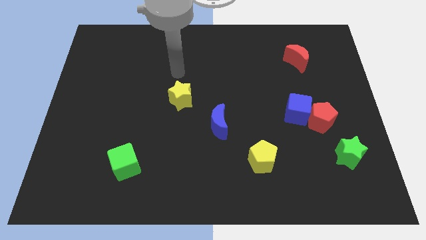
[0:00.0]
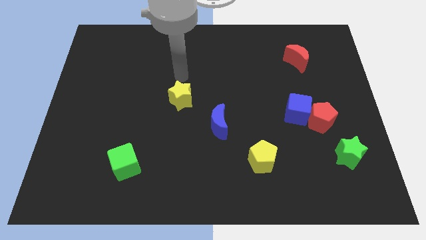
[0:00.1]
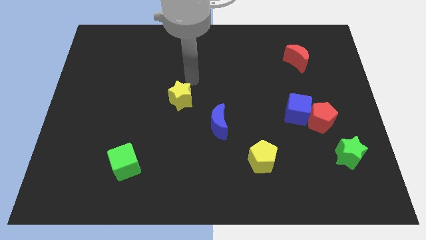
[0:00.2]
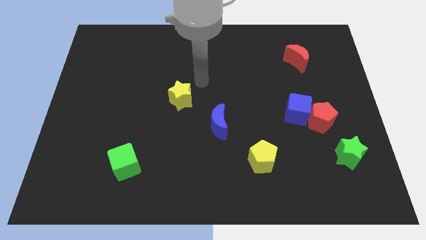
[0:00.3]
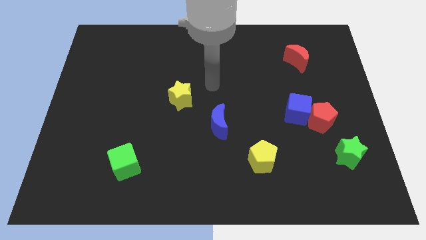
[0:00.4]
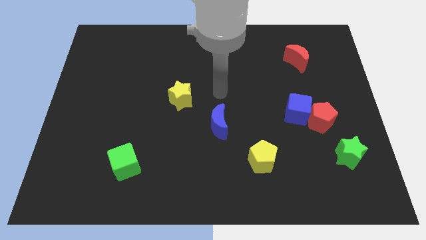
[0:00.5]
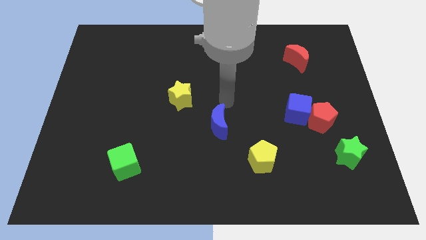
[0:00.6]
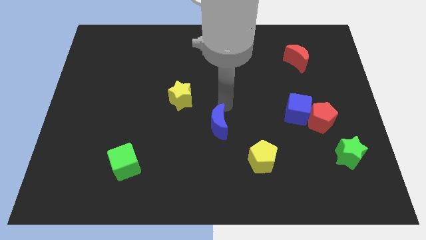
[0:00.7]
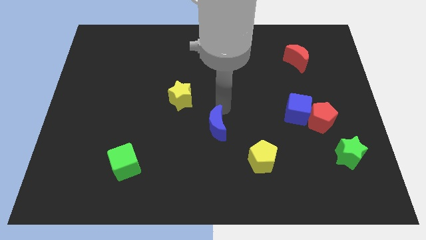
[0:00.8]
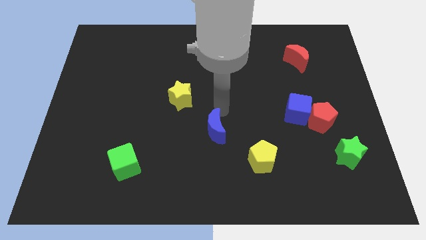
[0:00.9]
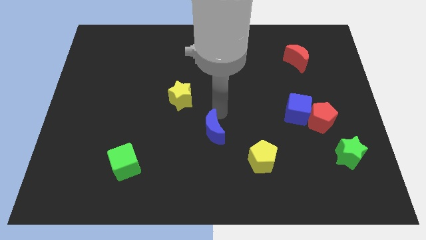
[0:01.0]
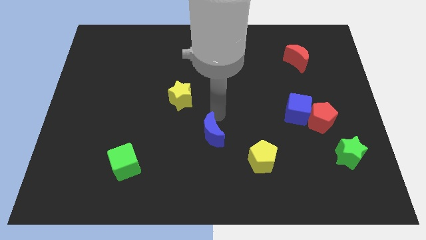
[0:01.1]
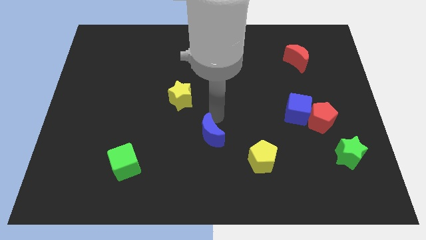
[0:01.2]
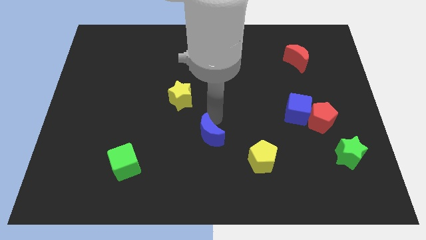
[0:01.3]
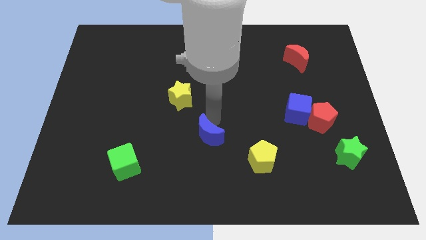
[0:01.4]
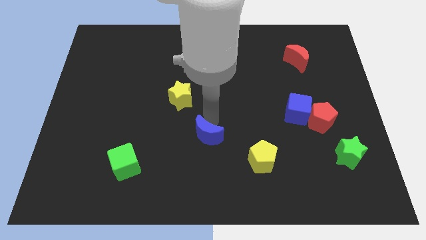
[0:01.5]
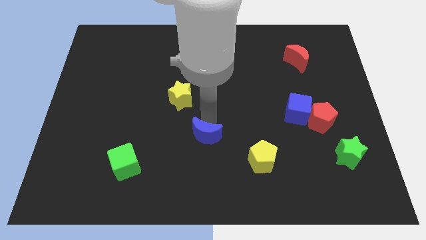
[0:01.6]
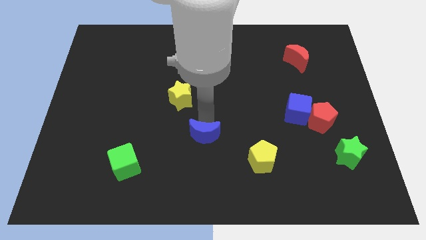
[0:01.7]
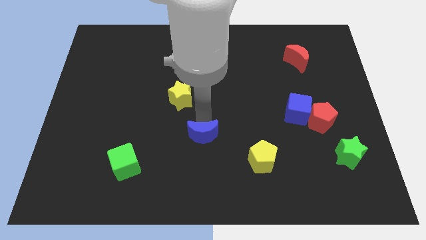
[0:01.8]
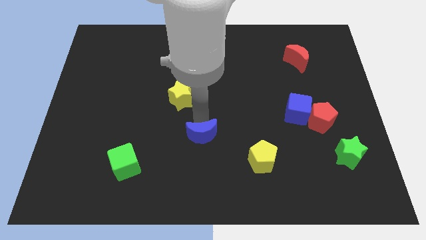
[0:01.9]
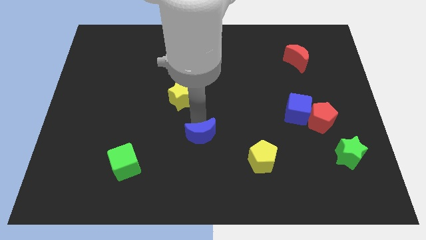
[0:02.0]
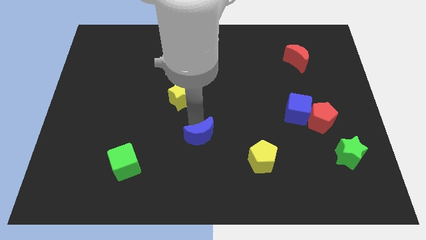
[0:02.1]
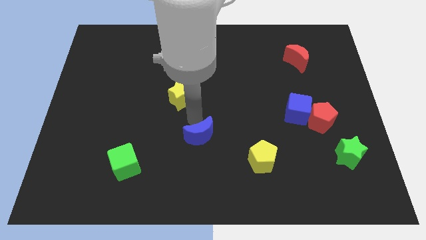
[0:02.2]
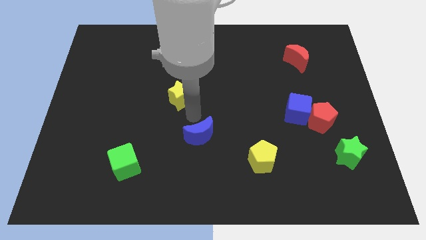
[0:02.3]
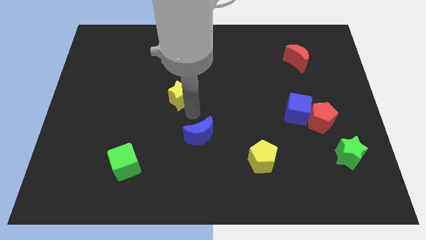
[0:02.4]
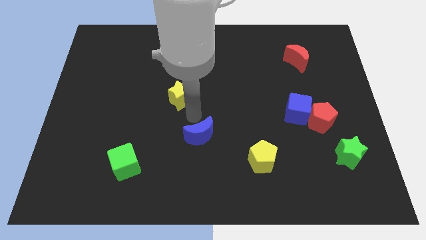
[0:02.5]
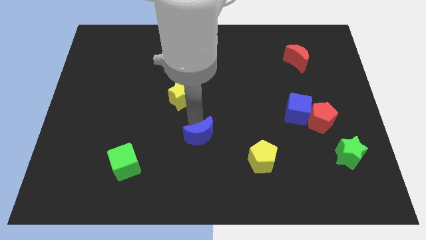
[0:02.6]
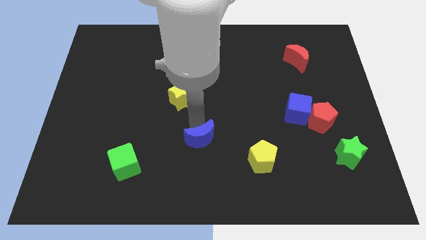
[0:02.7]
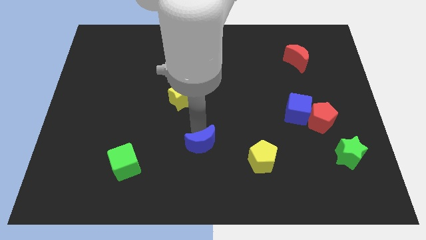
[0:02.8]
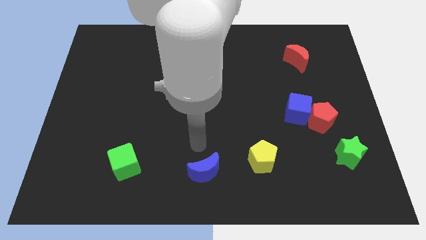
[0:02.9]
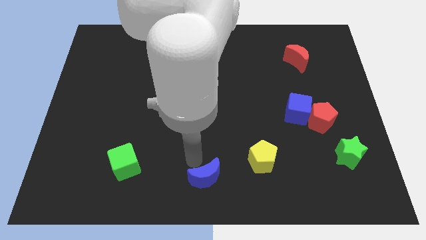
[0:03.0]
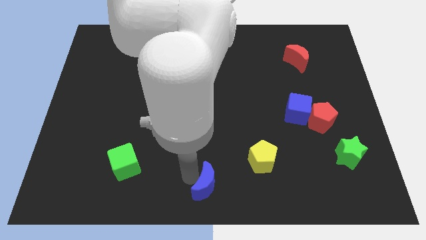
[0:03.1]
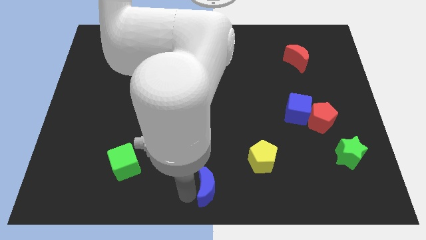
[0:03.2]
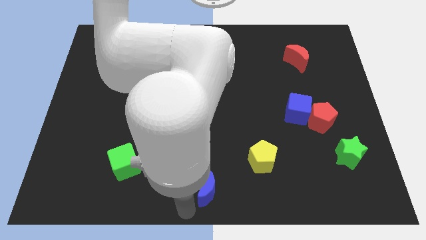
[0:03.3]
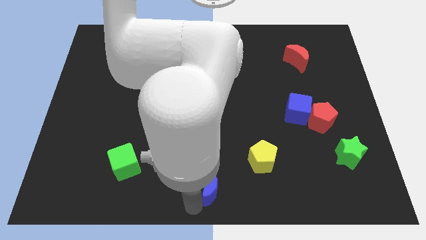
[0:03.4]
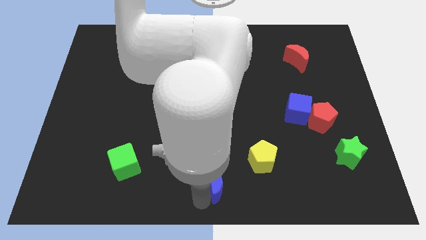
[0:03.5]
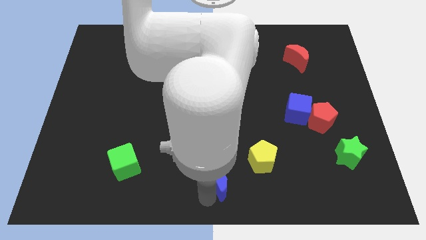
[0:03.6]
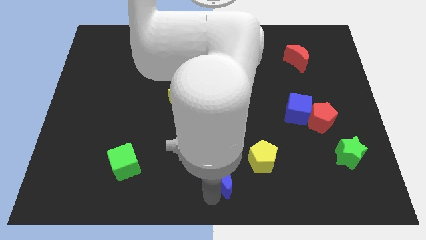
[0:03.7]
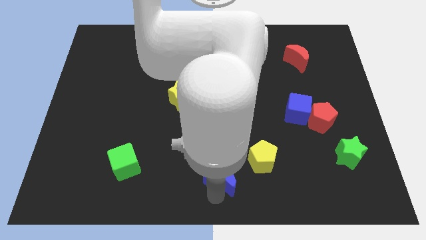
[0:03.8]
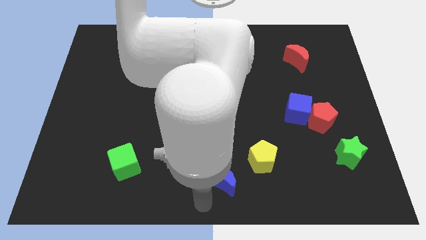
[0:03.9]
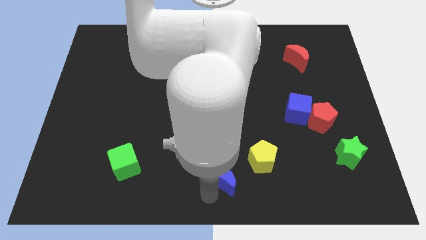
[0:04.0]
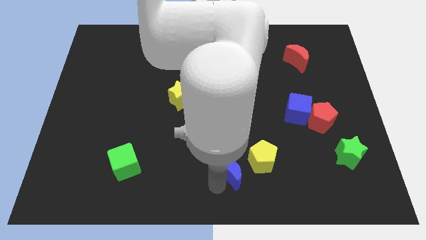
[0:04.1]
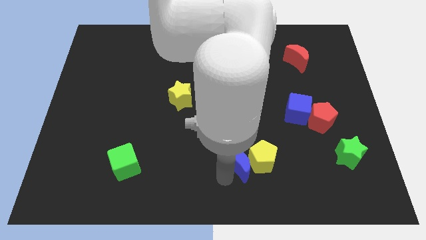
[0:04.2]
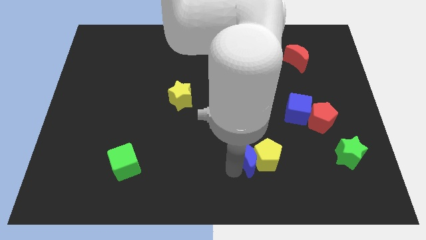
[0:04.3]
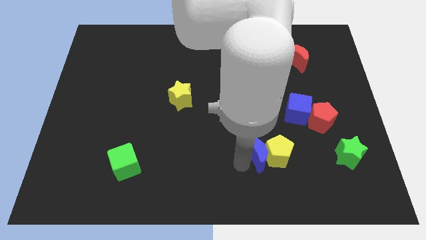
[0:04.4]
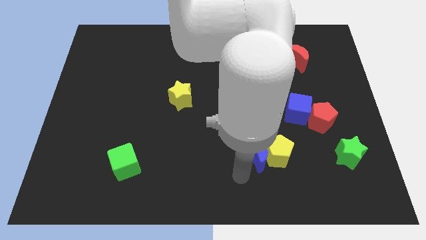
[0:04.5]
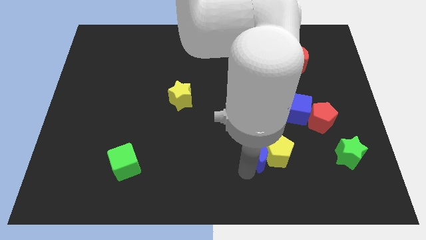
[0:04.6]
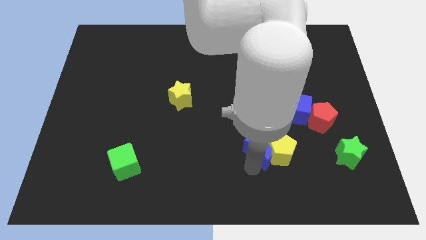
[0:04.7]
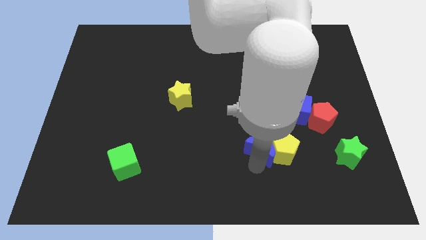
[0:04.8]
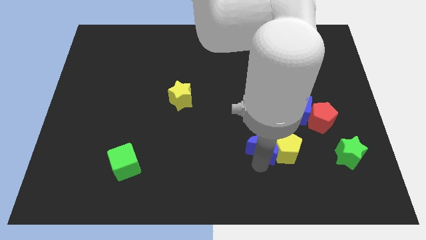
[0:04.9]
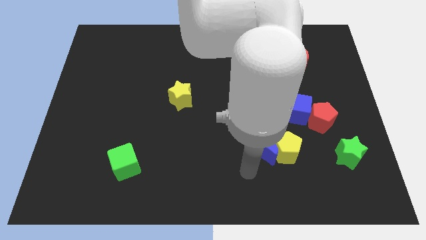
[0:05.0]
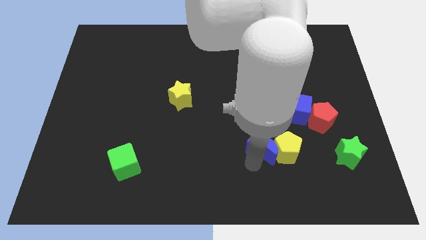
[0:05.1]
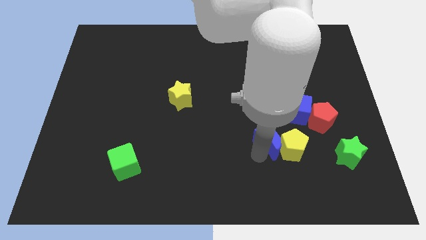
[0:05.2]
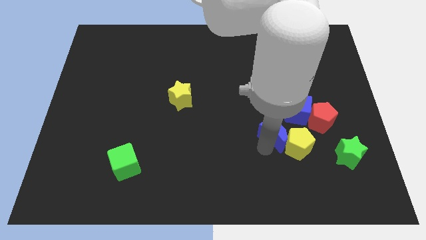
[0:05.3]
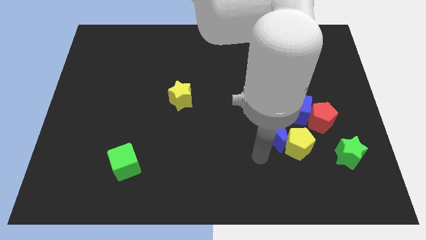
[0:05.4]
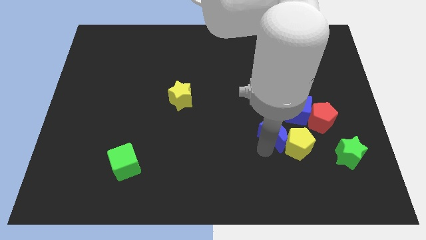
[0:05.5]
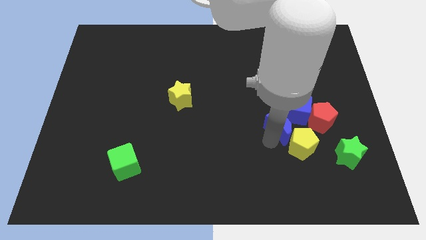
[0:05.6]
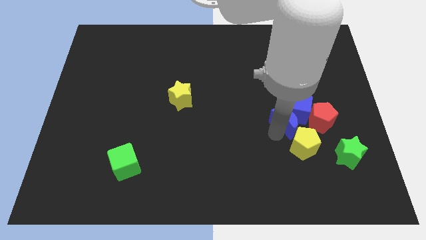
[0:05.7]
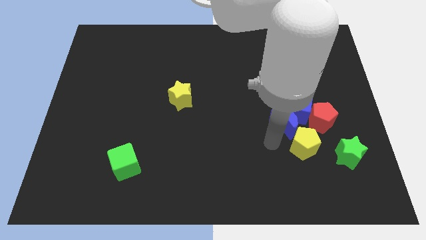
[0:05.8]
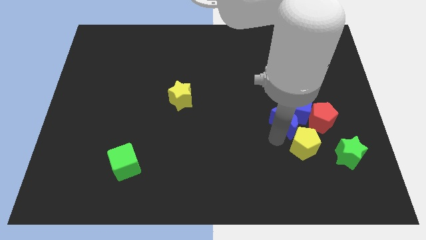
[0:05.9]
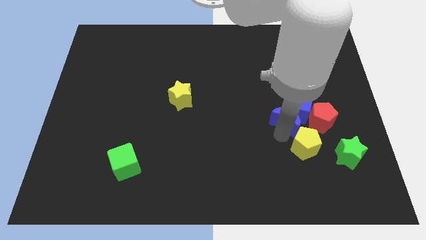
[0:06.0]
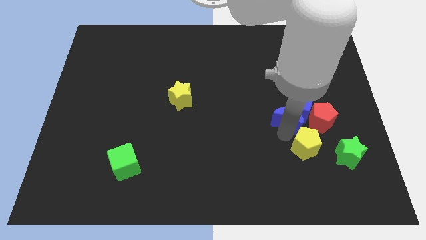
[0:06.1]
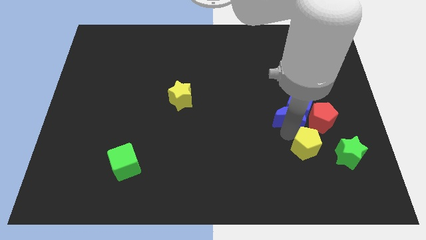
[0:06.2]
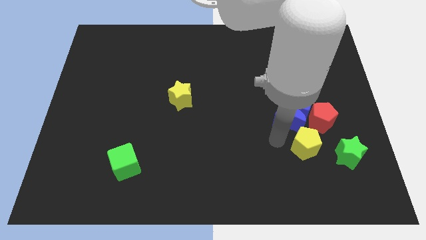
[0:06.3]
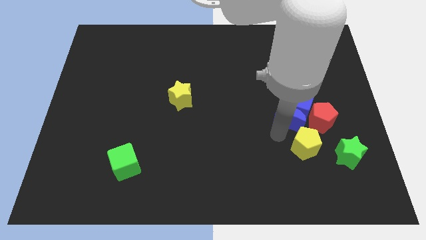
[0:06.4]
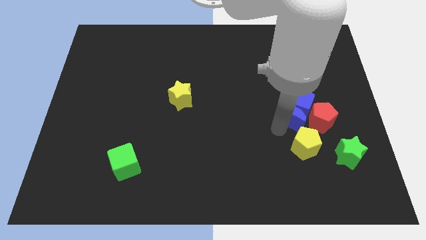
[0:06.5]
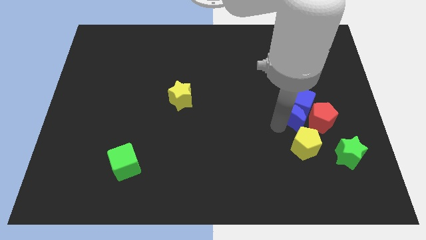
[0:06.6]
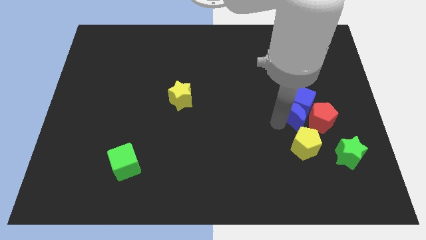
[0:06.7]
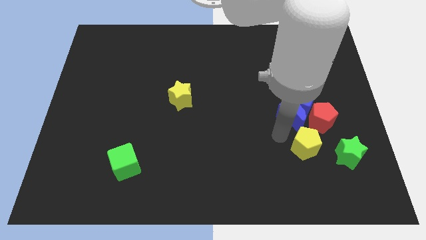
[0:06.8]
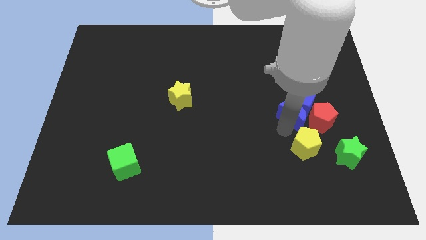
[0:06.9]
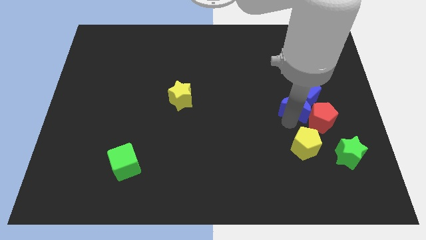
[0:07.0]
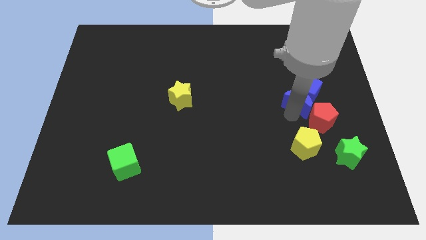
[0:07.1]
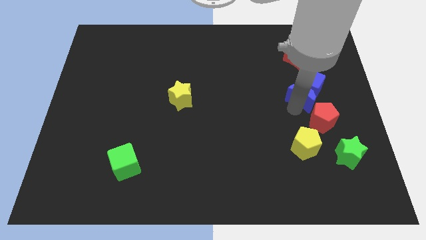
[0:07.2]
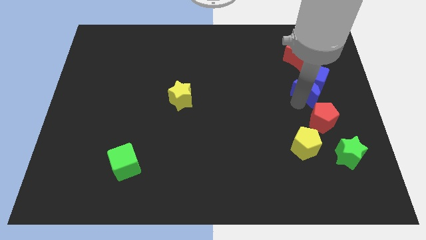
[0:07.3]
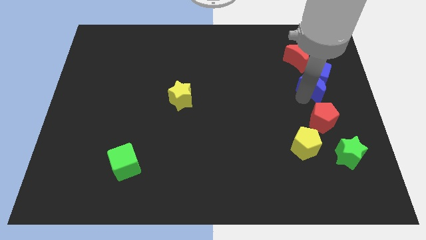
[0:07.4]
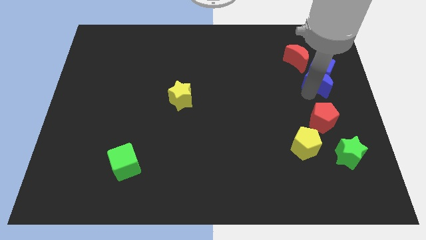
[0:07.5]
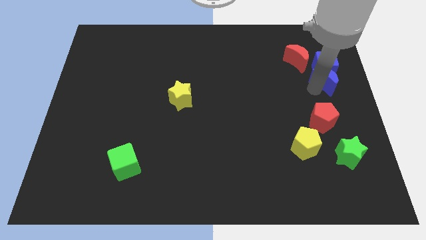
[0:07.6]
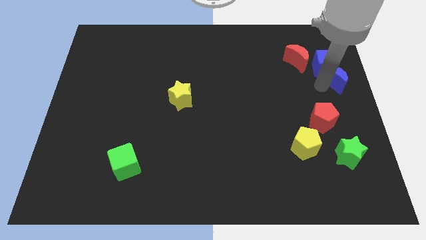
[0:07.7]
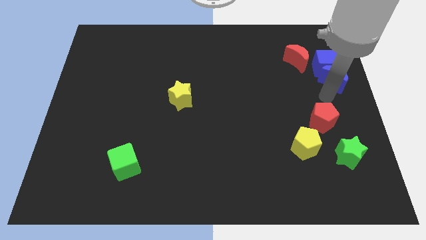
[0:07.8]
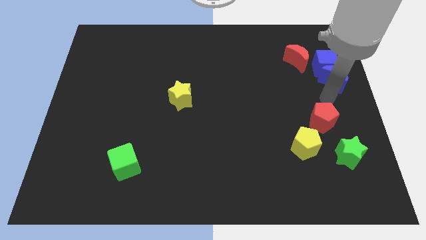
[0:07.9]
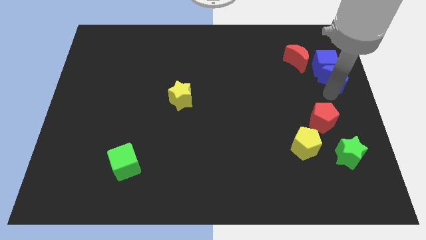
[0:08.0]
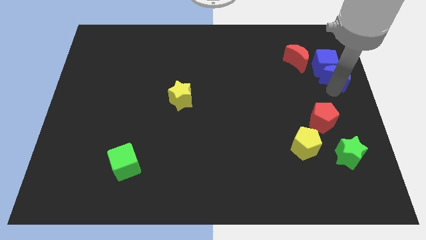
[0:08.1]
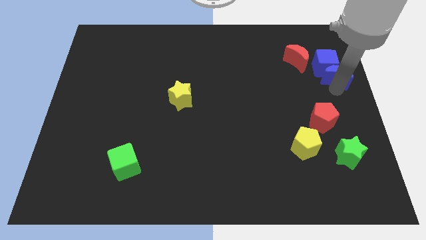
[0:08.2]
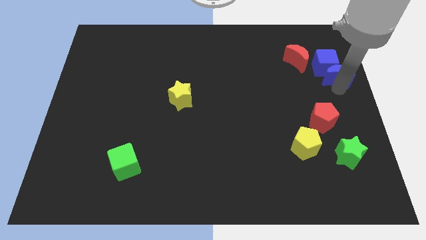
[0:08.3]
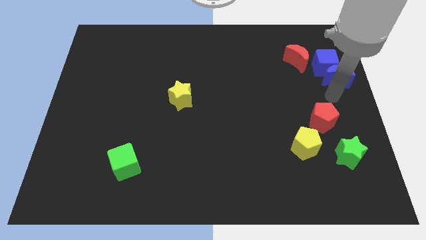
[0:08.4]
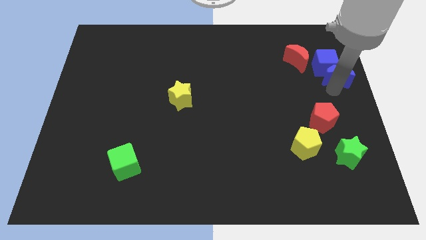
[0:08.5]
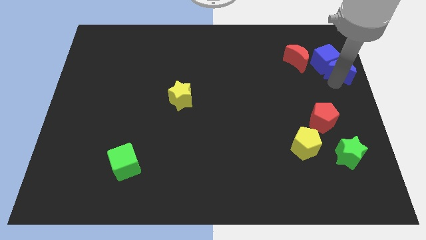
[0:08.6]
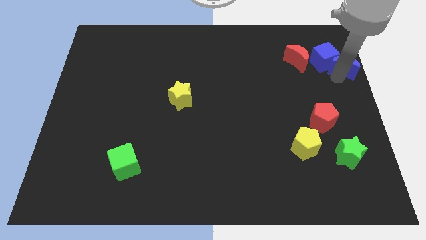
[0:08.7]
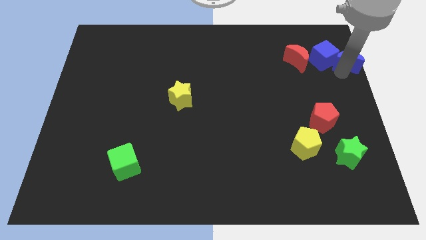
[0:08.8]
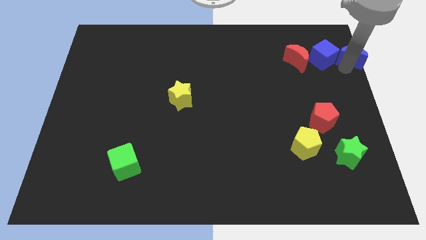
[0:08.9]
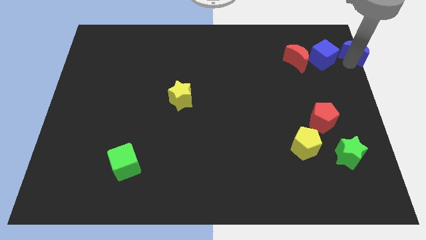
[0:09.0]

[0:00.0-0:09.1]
move the blue moon to the upper right corner
